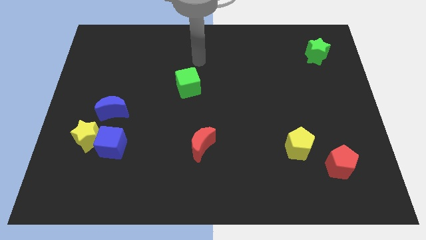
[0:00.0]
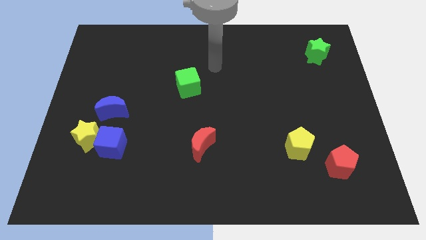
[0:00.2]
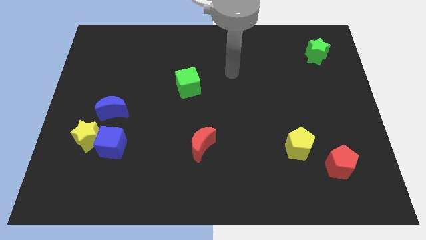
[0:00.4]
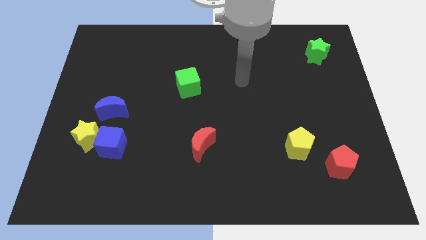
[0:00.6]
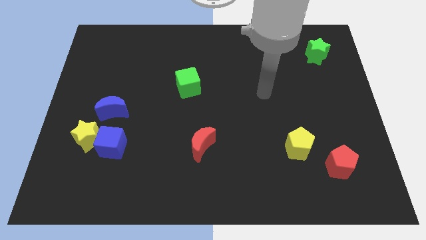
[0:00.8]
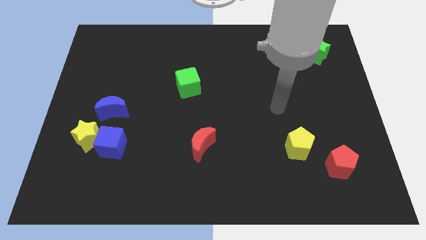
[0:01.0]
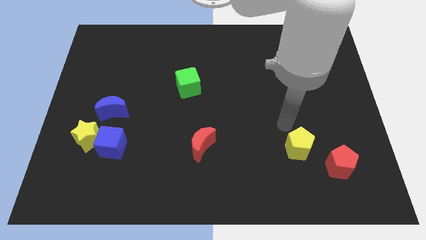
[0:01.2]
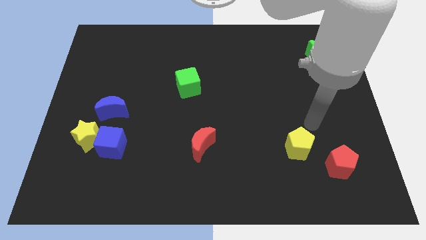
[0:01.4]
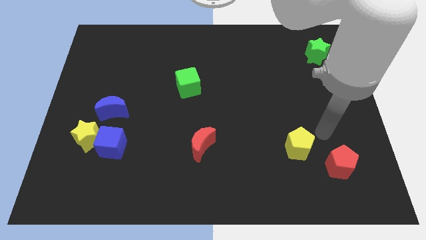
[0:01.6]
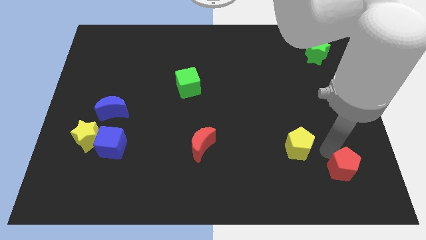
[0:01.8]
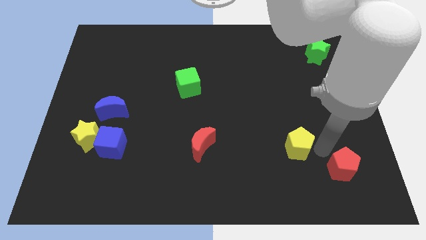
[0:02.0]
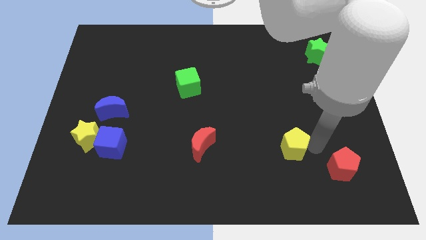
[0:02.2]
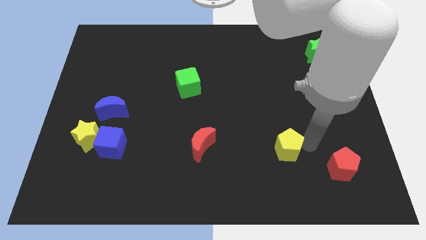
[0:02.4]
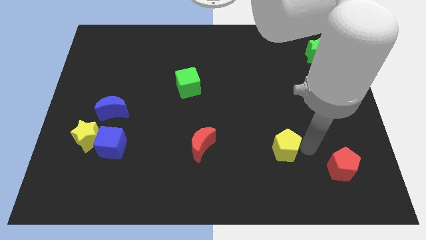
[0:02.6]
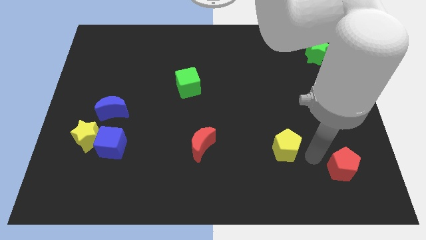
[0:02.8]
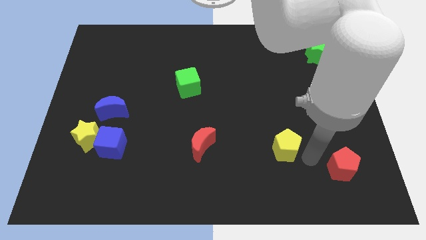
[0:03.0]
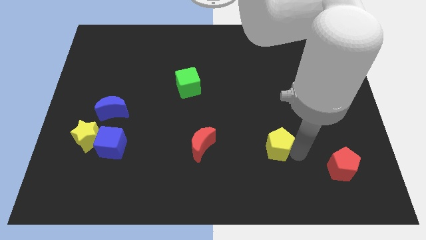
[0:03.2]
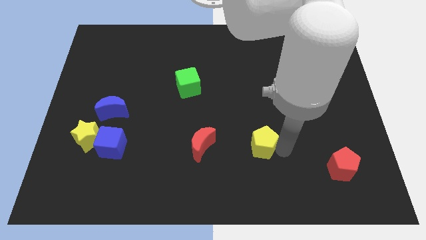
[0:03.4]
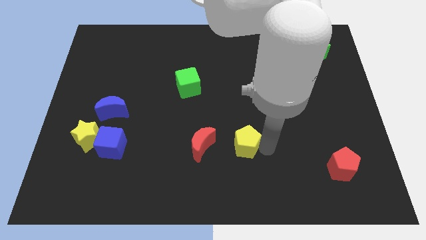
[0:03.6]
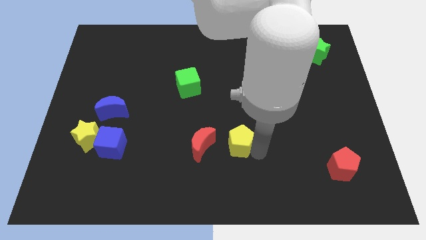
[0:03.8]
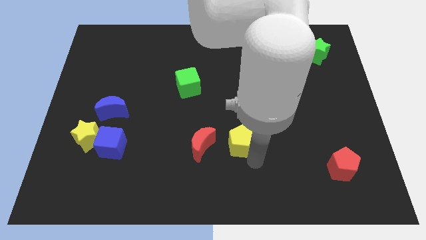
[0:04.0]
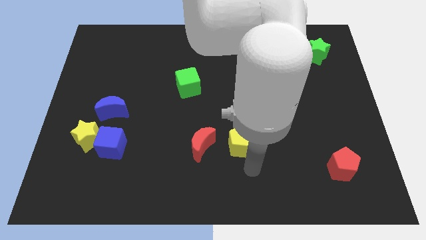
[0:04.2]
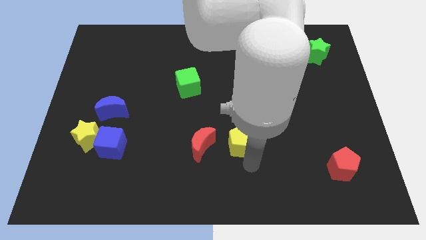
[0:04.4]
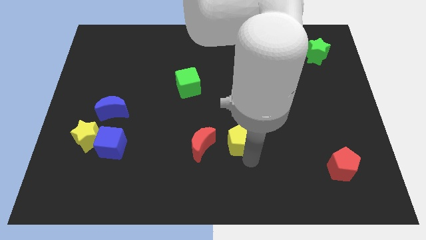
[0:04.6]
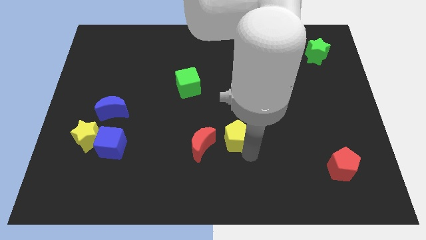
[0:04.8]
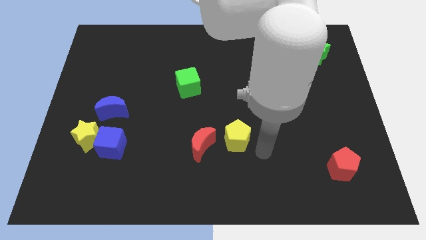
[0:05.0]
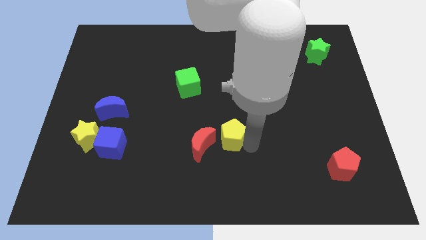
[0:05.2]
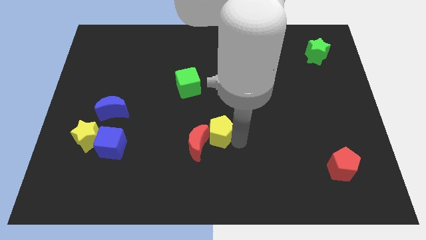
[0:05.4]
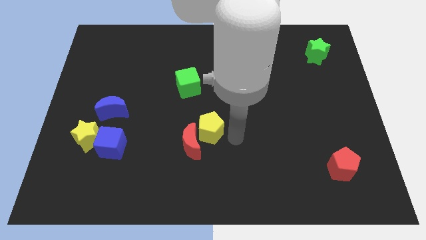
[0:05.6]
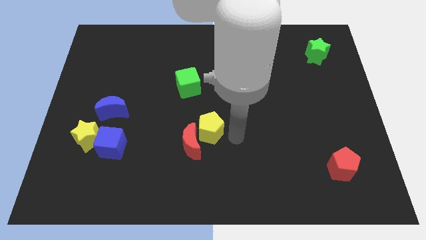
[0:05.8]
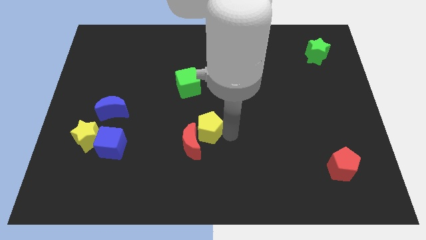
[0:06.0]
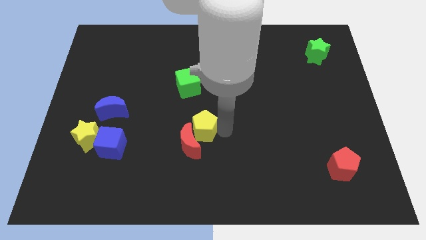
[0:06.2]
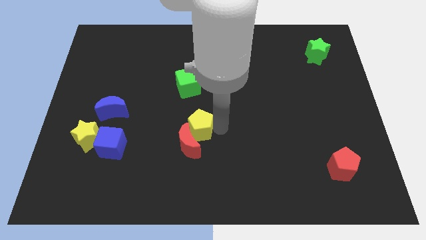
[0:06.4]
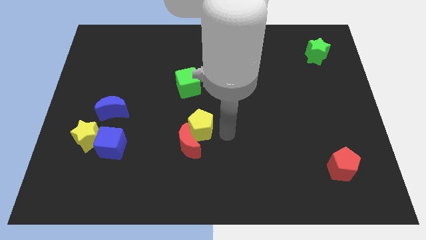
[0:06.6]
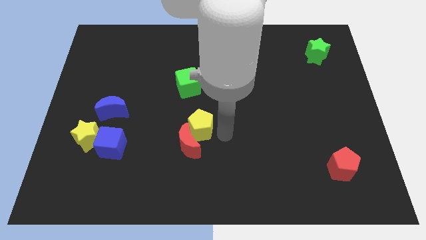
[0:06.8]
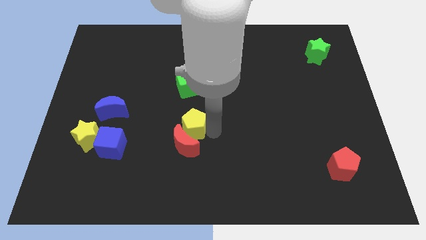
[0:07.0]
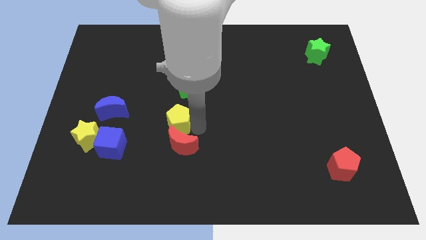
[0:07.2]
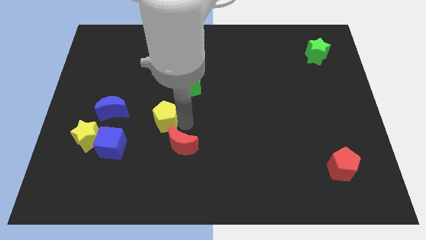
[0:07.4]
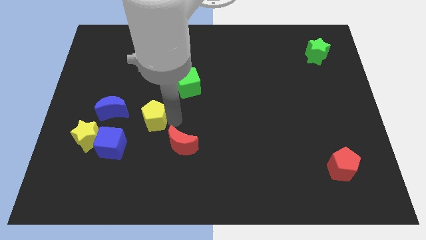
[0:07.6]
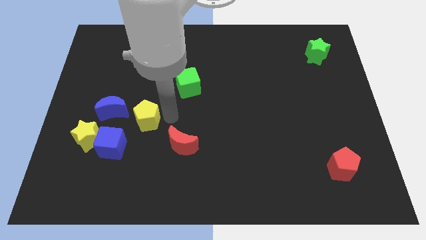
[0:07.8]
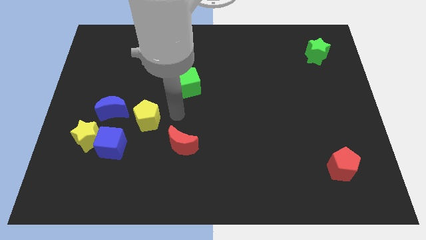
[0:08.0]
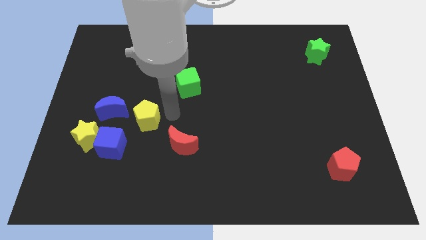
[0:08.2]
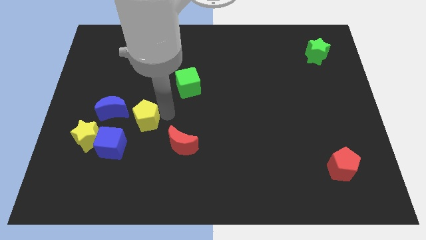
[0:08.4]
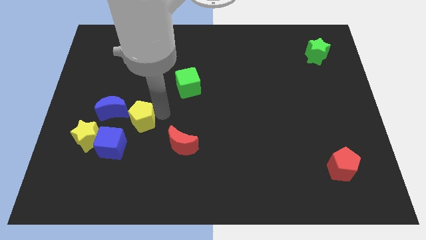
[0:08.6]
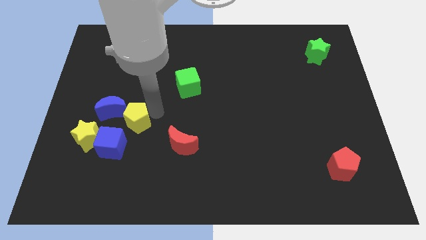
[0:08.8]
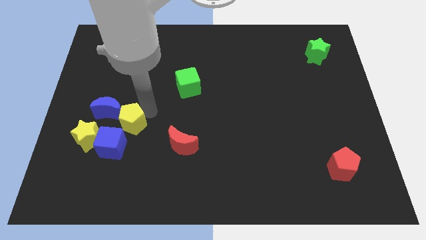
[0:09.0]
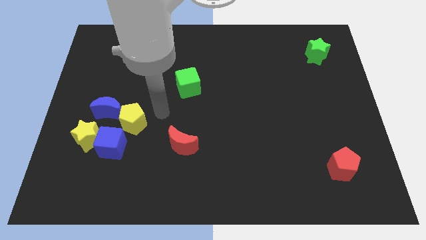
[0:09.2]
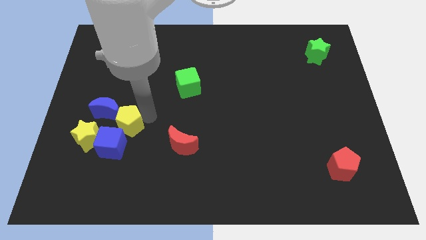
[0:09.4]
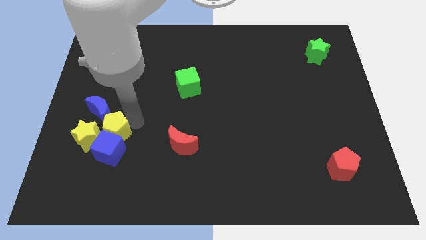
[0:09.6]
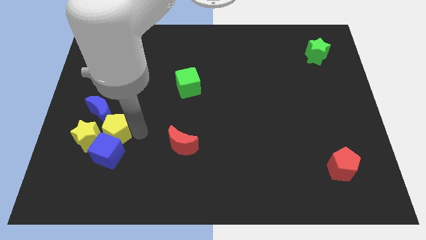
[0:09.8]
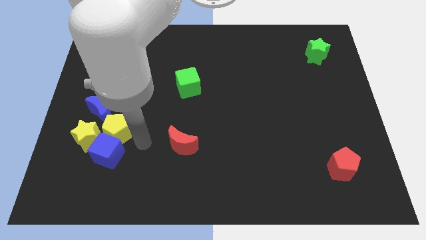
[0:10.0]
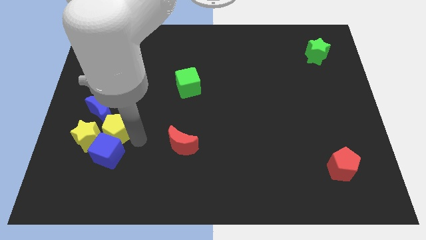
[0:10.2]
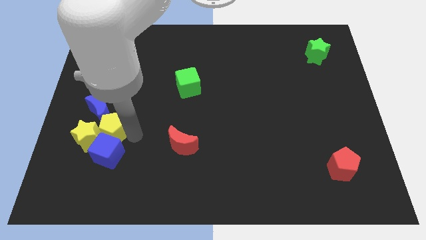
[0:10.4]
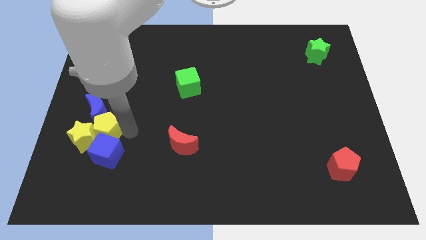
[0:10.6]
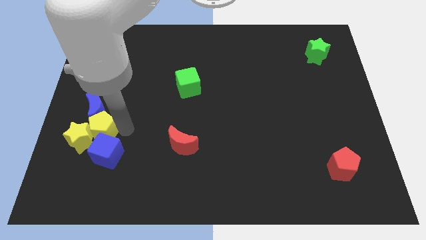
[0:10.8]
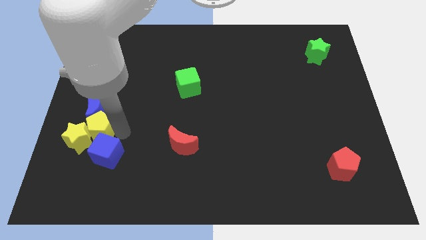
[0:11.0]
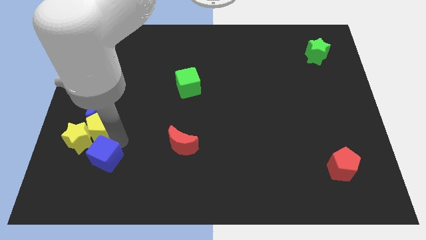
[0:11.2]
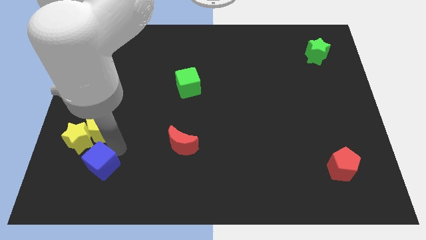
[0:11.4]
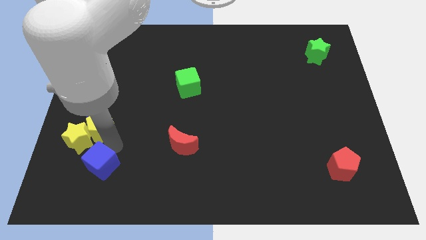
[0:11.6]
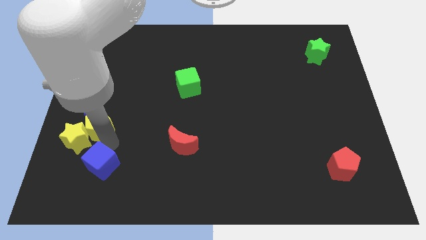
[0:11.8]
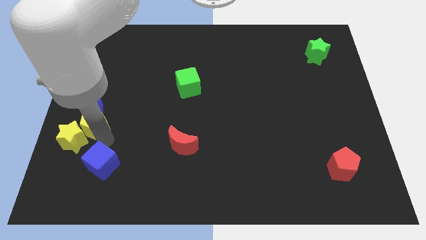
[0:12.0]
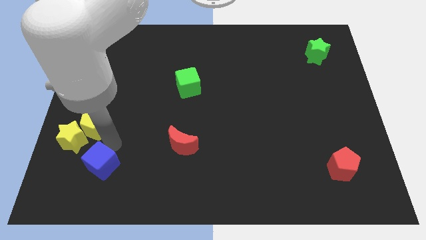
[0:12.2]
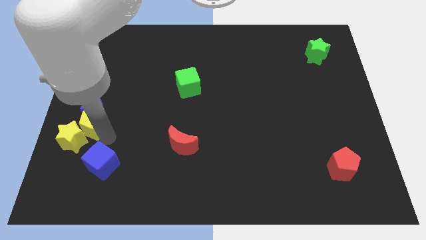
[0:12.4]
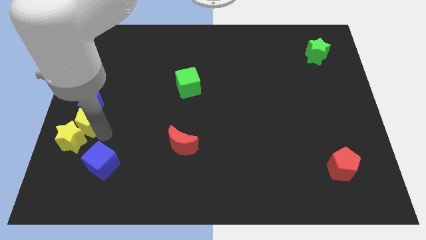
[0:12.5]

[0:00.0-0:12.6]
move the yellow pentagon to the center left
